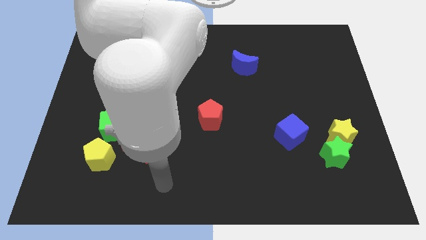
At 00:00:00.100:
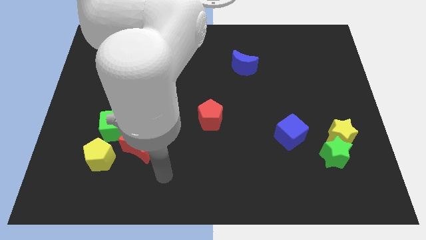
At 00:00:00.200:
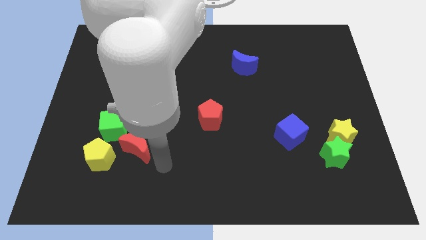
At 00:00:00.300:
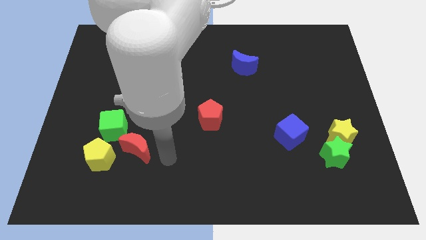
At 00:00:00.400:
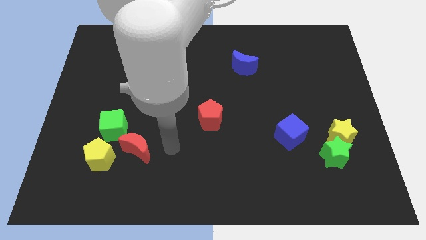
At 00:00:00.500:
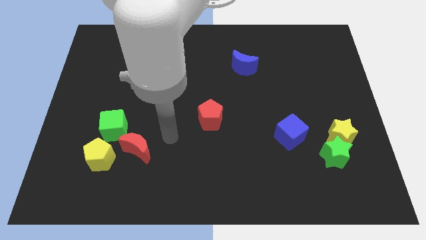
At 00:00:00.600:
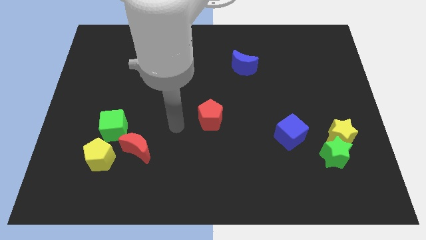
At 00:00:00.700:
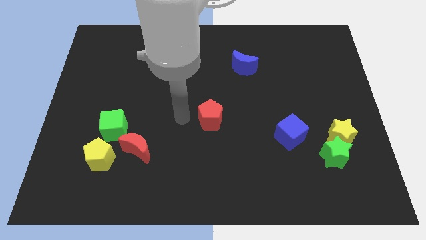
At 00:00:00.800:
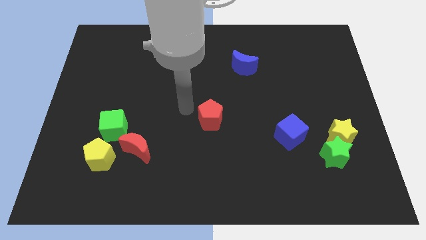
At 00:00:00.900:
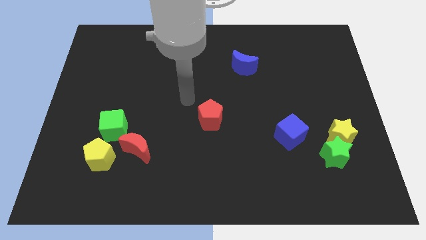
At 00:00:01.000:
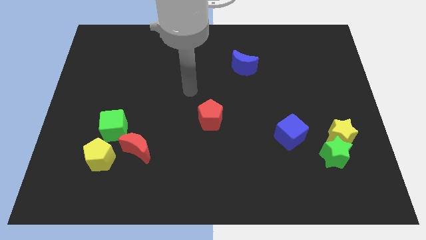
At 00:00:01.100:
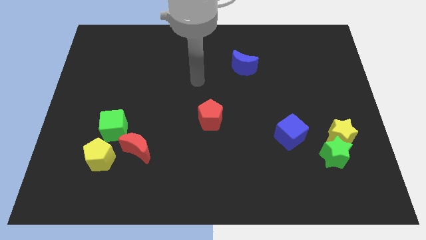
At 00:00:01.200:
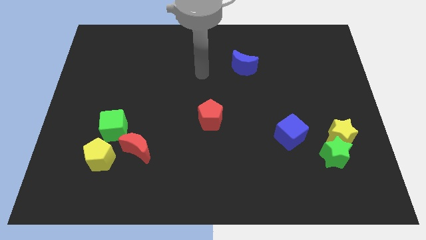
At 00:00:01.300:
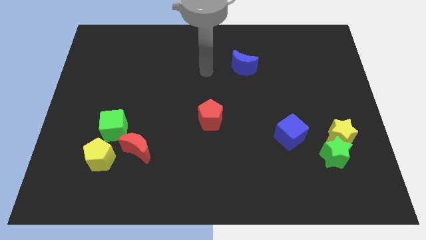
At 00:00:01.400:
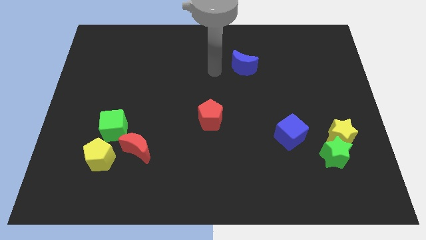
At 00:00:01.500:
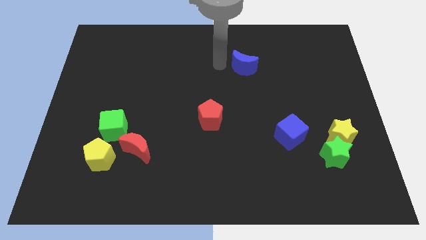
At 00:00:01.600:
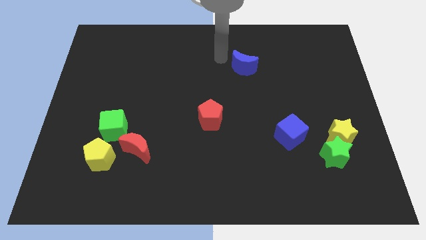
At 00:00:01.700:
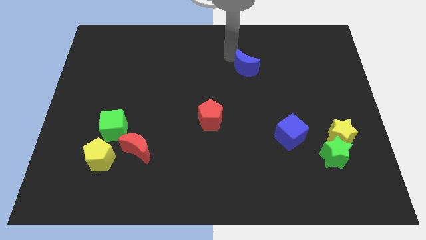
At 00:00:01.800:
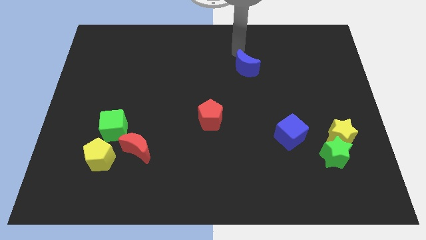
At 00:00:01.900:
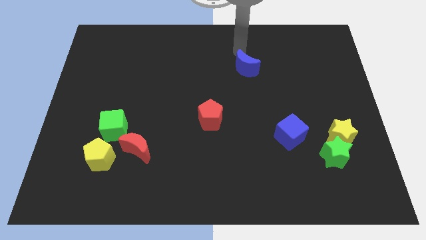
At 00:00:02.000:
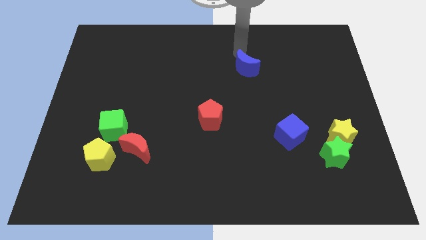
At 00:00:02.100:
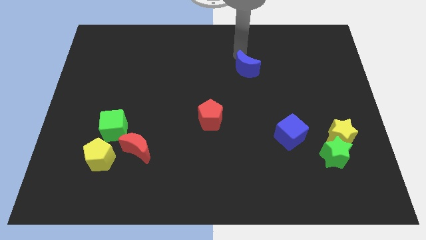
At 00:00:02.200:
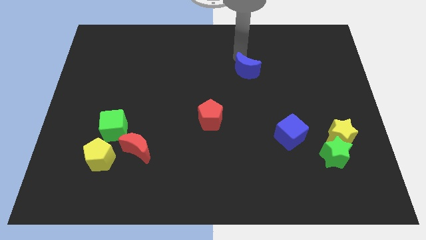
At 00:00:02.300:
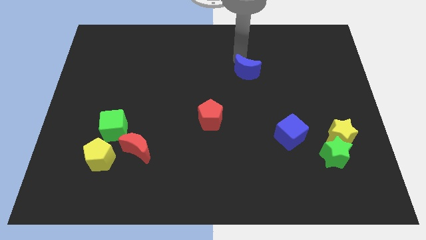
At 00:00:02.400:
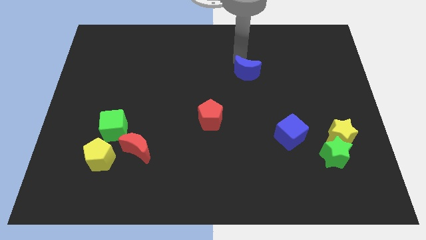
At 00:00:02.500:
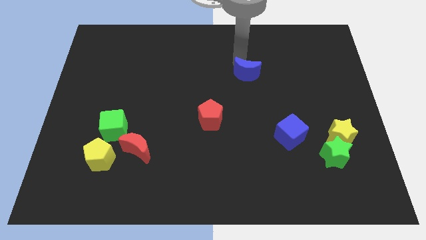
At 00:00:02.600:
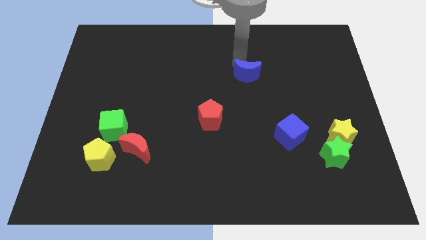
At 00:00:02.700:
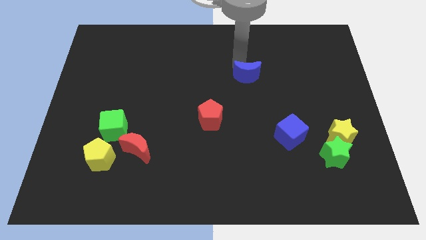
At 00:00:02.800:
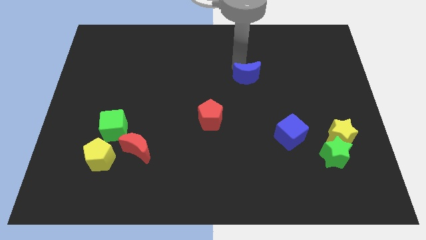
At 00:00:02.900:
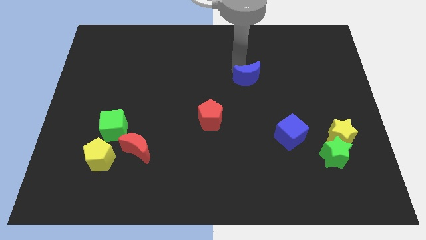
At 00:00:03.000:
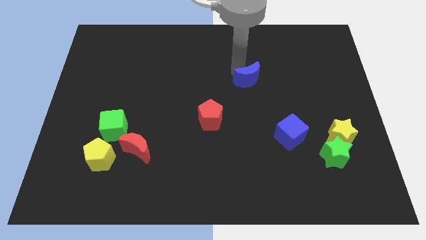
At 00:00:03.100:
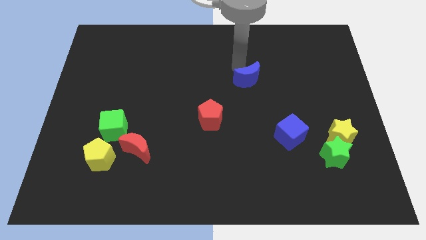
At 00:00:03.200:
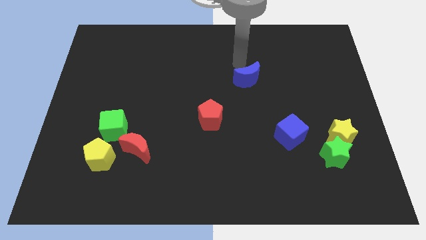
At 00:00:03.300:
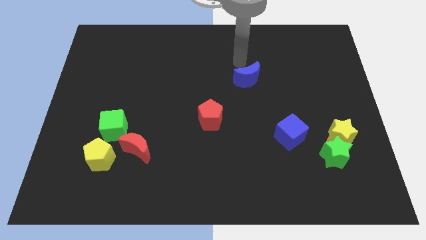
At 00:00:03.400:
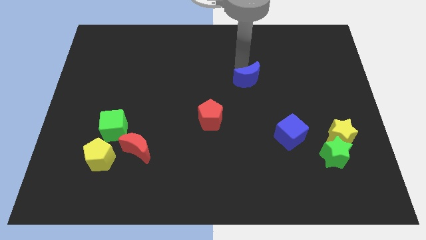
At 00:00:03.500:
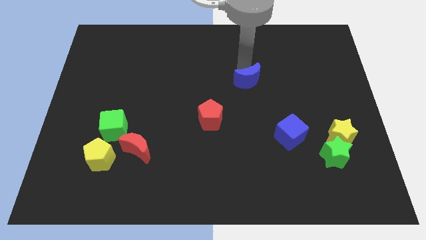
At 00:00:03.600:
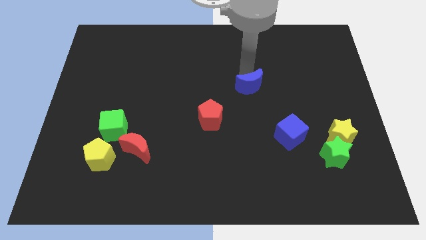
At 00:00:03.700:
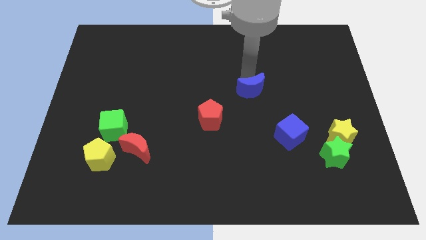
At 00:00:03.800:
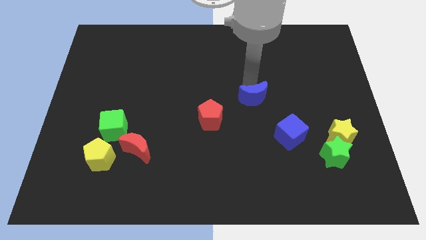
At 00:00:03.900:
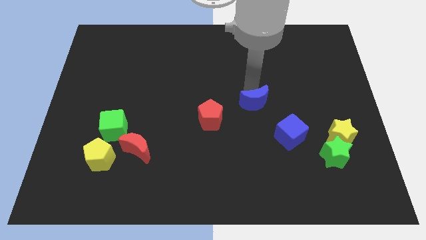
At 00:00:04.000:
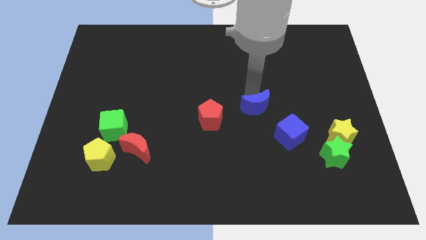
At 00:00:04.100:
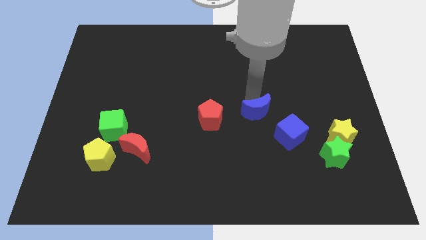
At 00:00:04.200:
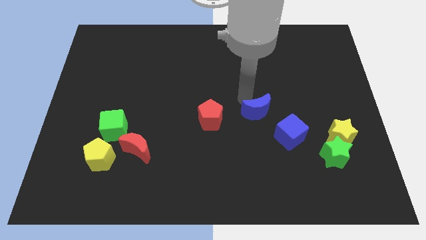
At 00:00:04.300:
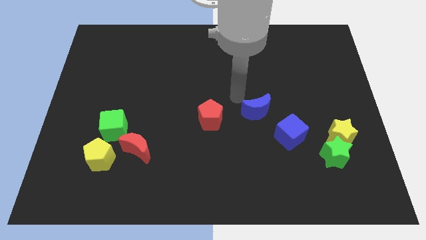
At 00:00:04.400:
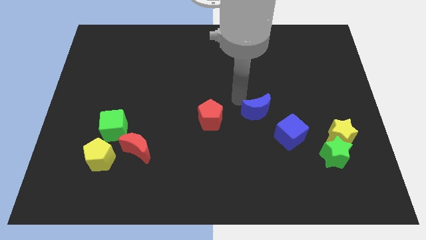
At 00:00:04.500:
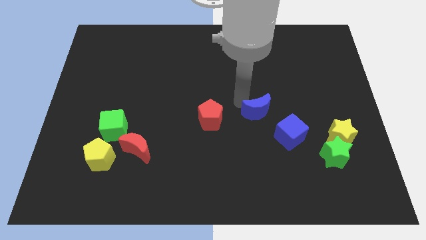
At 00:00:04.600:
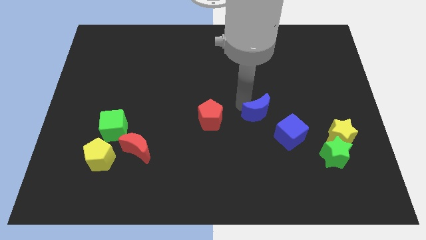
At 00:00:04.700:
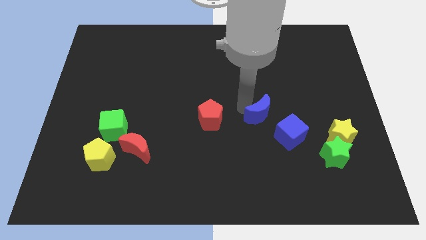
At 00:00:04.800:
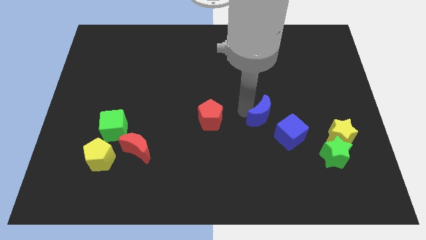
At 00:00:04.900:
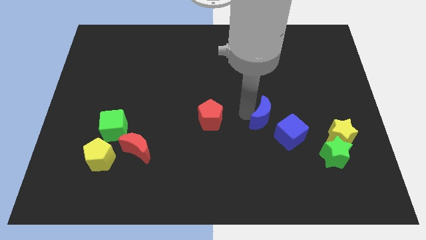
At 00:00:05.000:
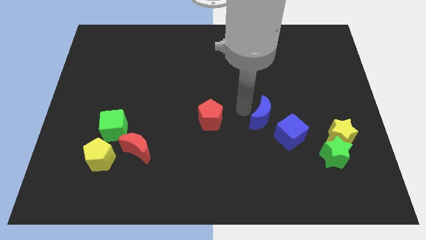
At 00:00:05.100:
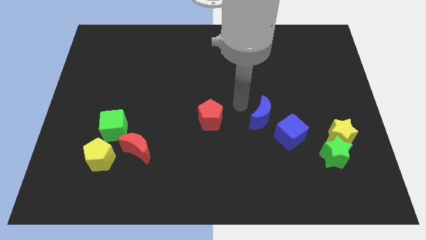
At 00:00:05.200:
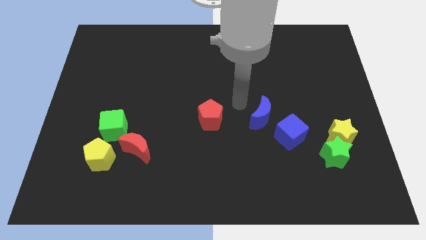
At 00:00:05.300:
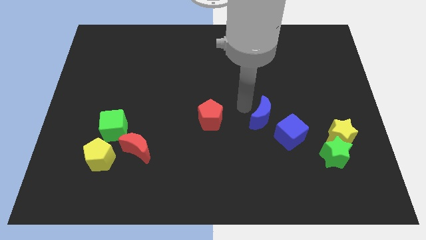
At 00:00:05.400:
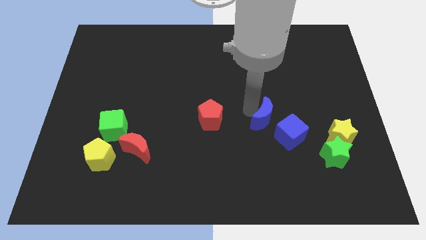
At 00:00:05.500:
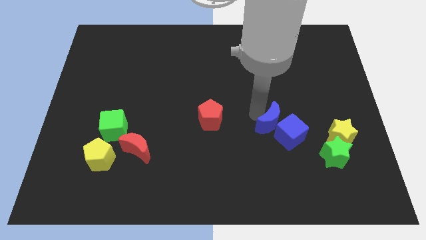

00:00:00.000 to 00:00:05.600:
push the blue moon to the blue cube

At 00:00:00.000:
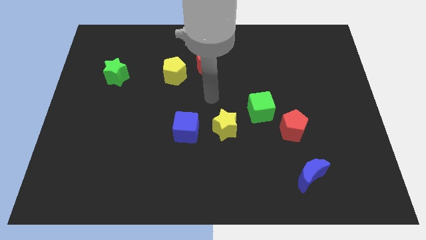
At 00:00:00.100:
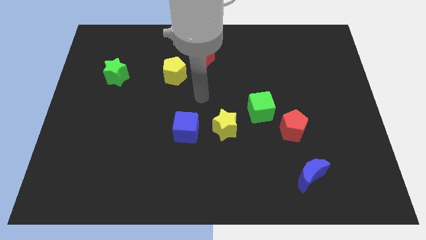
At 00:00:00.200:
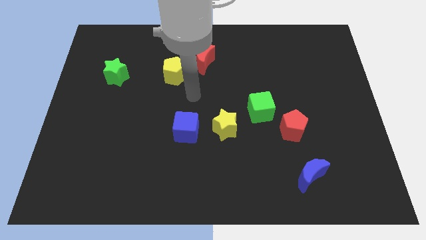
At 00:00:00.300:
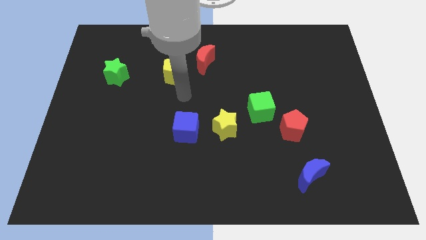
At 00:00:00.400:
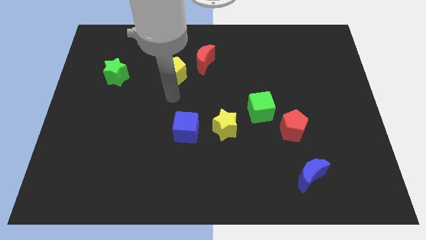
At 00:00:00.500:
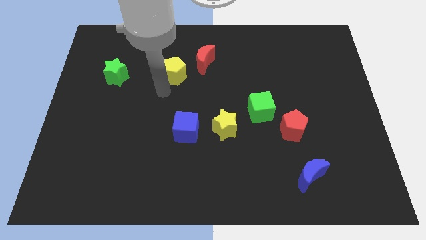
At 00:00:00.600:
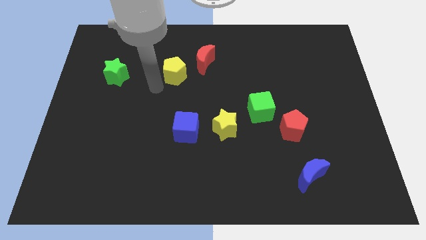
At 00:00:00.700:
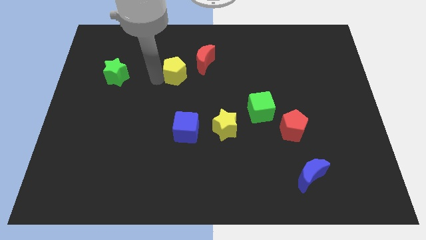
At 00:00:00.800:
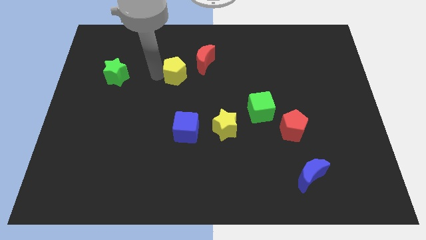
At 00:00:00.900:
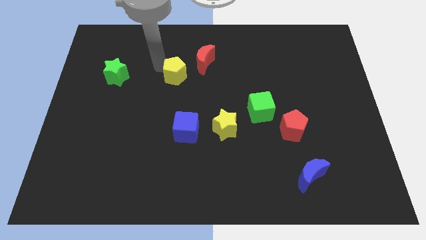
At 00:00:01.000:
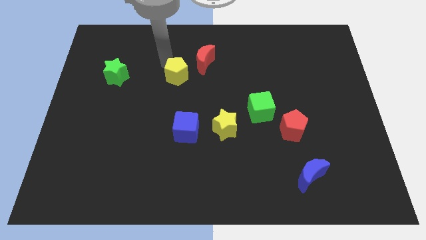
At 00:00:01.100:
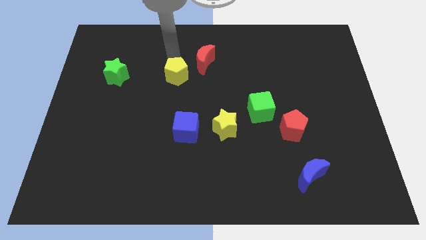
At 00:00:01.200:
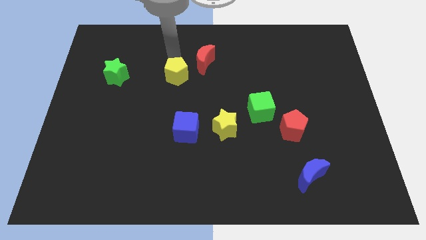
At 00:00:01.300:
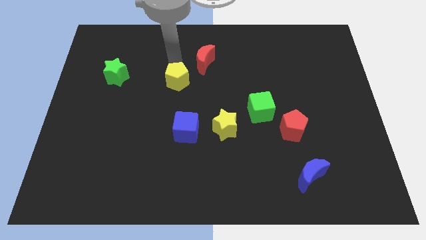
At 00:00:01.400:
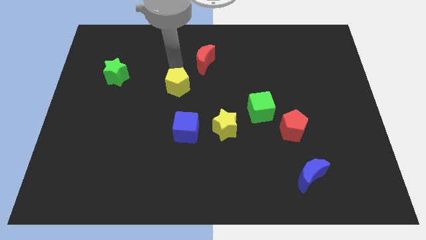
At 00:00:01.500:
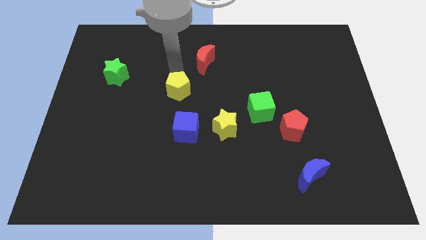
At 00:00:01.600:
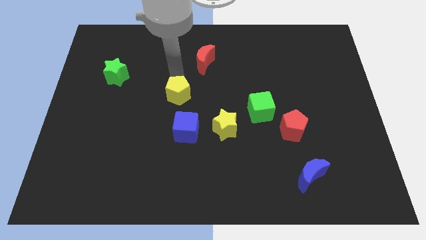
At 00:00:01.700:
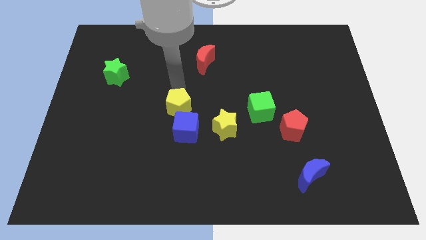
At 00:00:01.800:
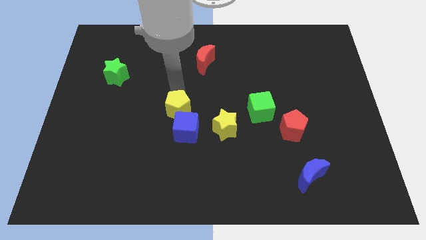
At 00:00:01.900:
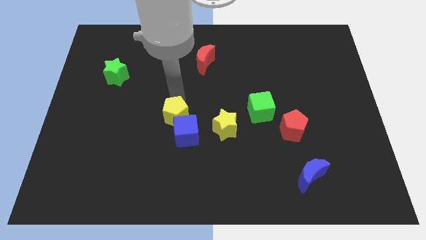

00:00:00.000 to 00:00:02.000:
slide the yellow pentagon towards the blue cube

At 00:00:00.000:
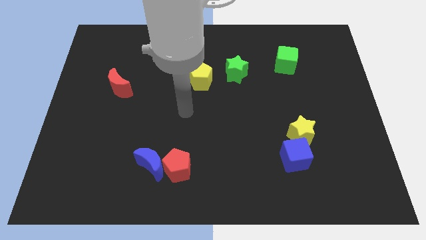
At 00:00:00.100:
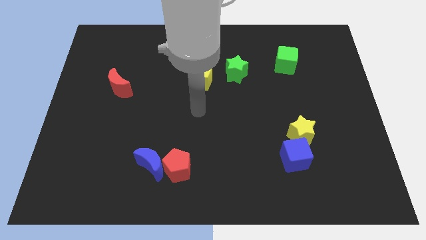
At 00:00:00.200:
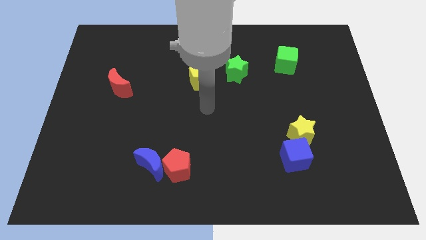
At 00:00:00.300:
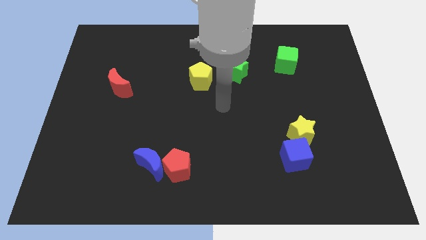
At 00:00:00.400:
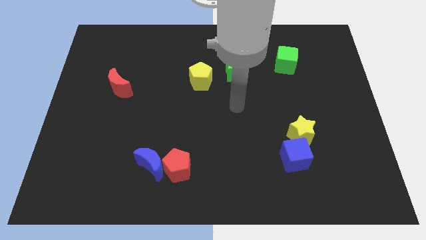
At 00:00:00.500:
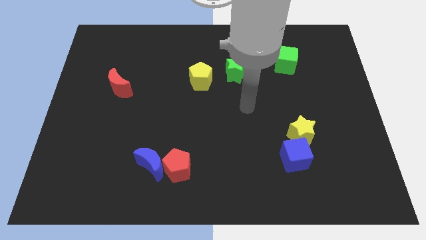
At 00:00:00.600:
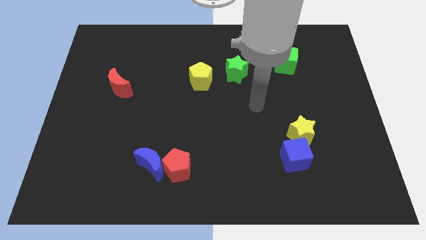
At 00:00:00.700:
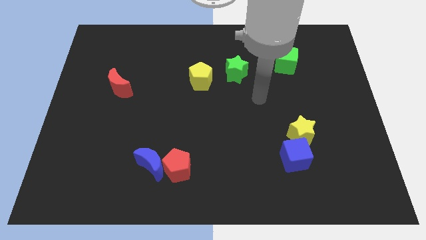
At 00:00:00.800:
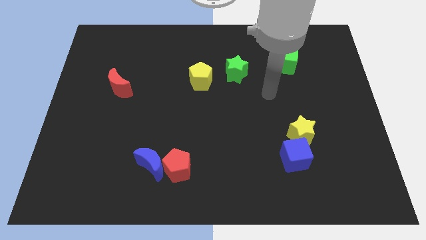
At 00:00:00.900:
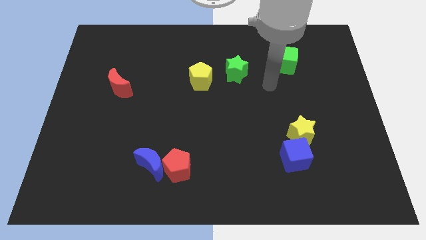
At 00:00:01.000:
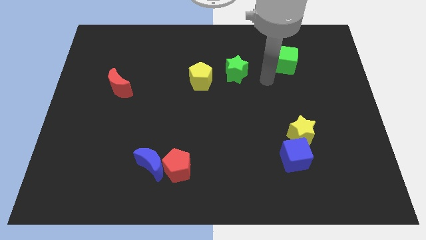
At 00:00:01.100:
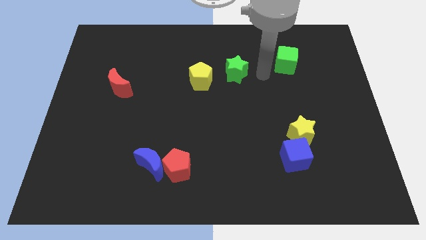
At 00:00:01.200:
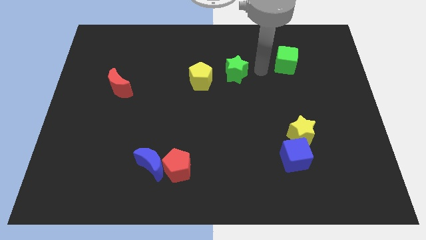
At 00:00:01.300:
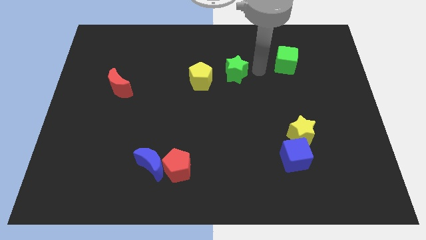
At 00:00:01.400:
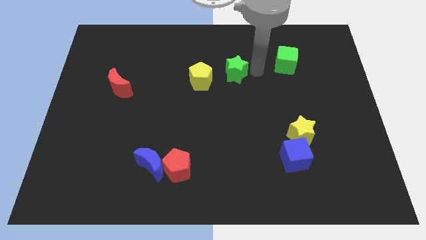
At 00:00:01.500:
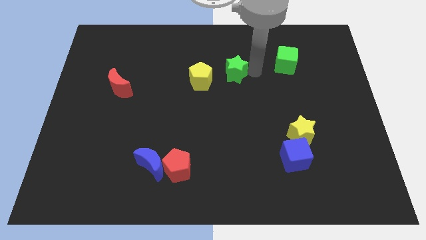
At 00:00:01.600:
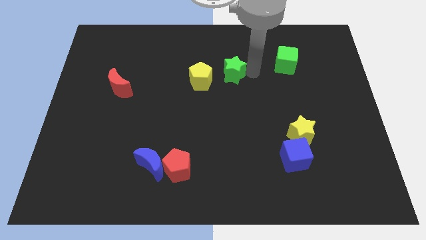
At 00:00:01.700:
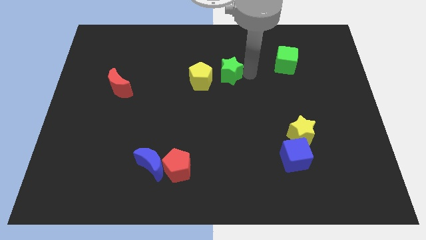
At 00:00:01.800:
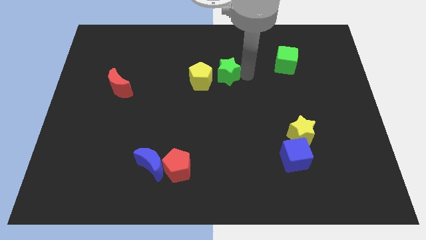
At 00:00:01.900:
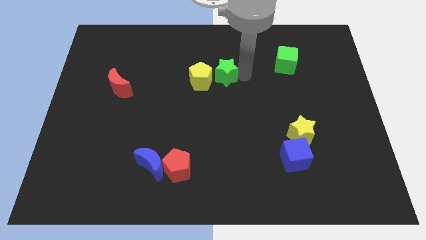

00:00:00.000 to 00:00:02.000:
put the green star towards the yellow pentagon
